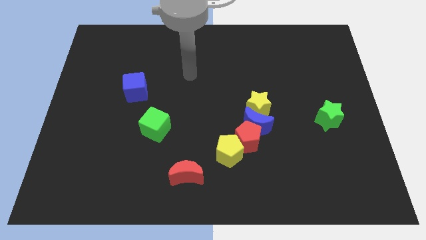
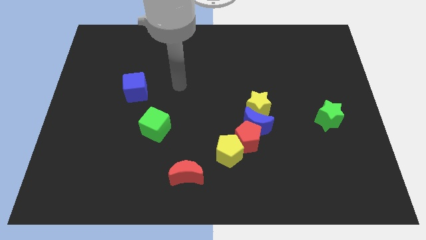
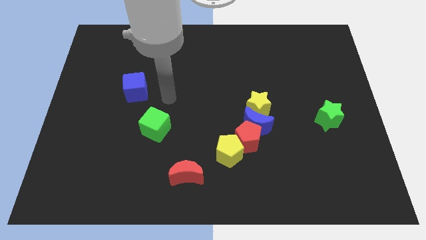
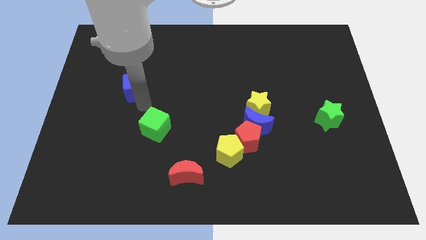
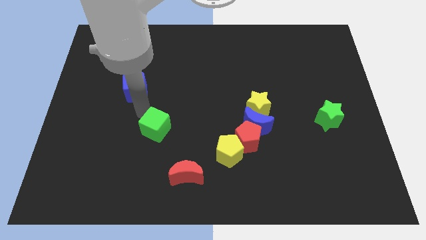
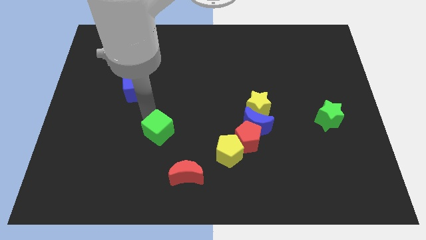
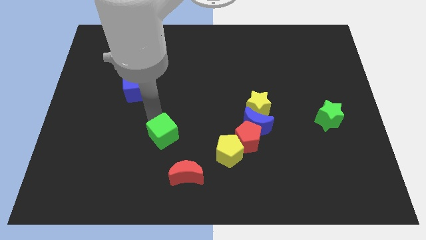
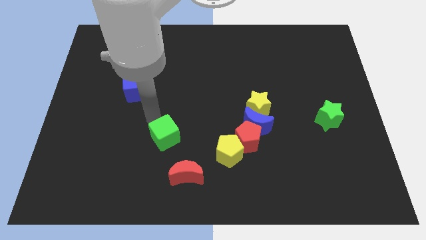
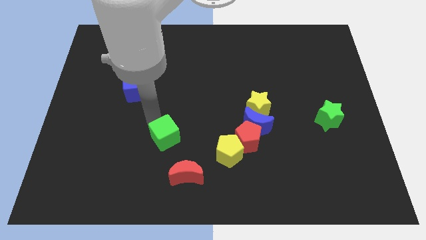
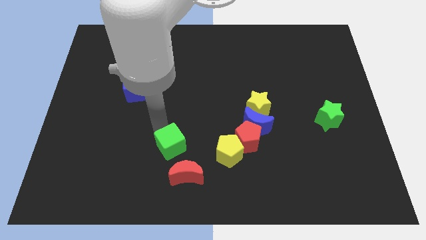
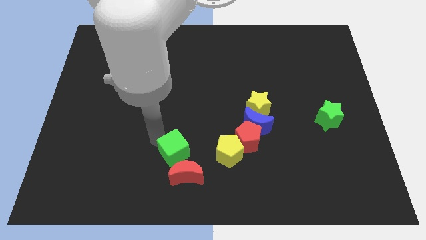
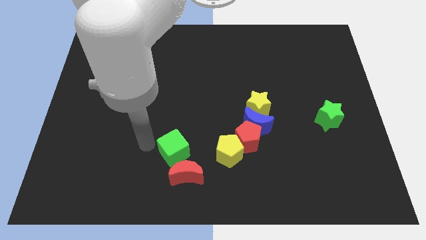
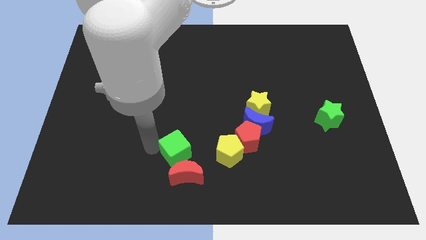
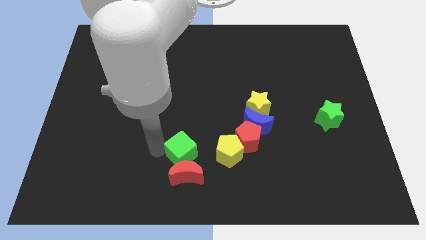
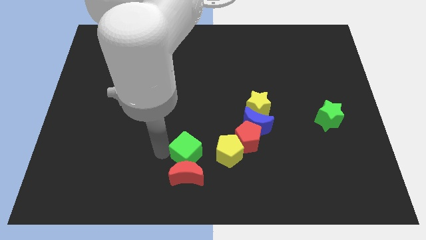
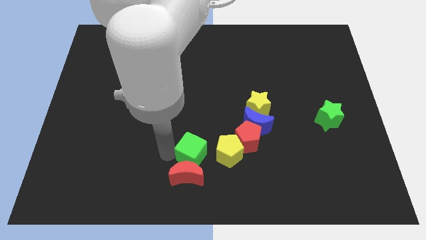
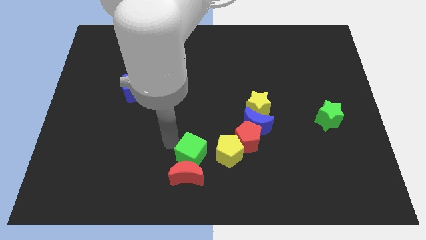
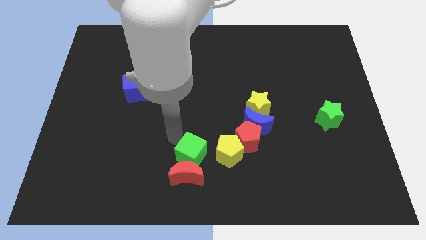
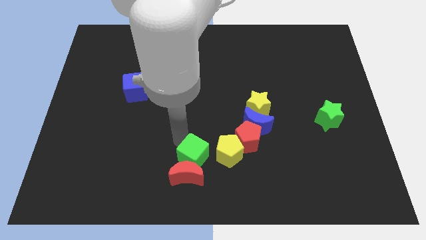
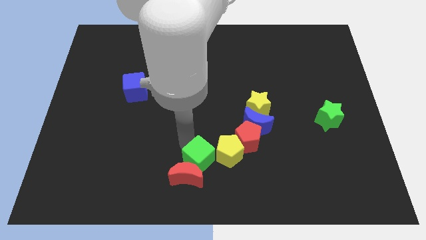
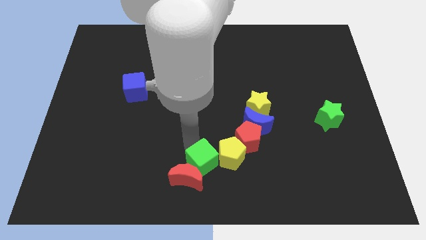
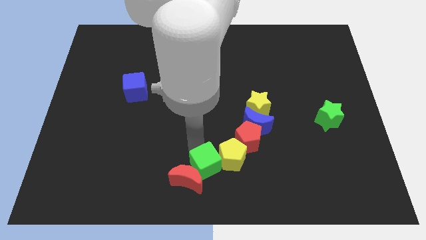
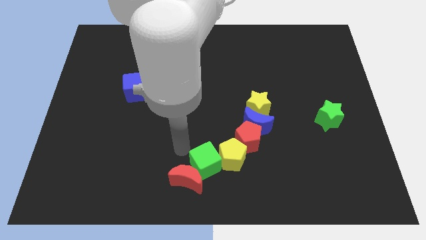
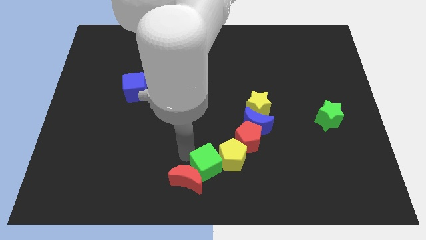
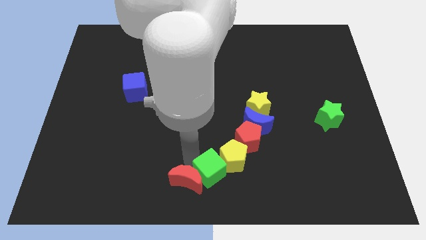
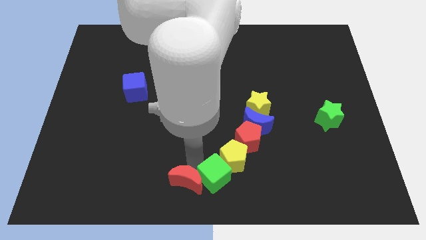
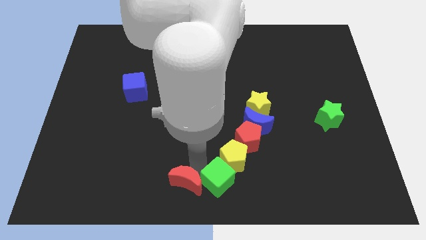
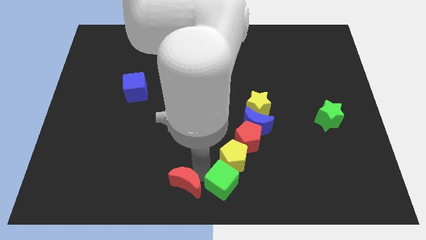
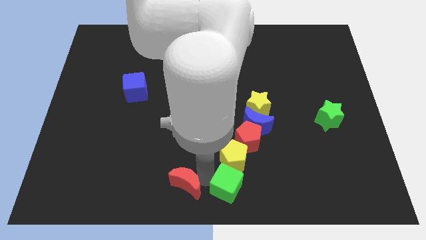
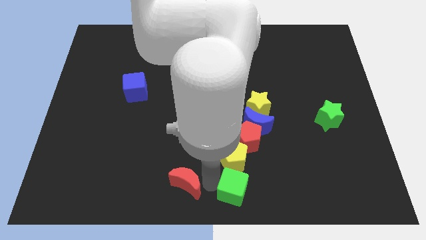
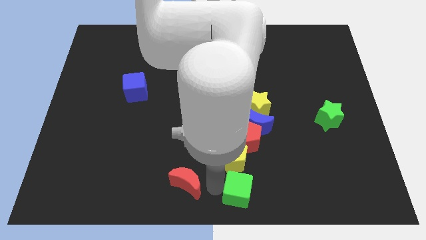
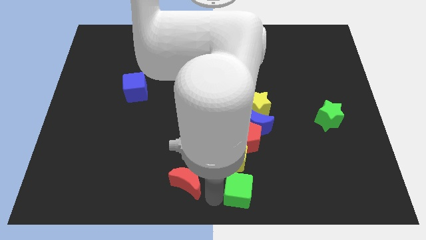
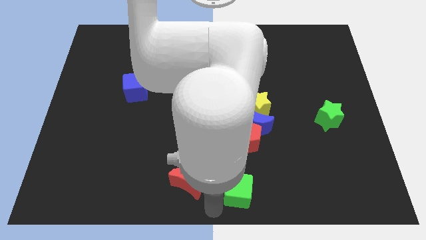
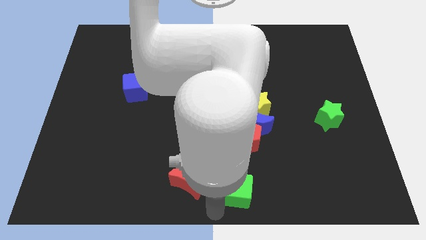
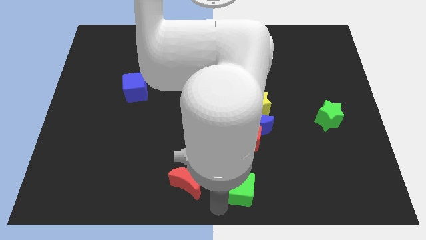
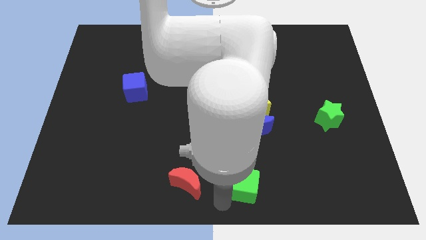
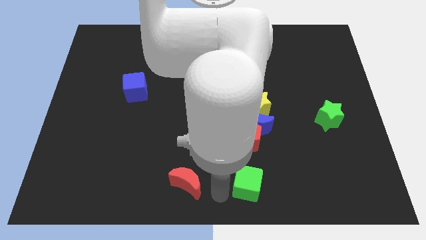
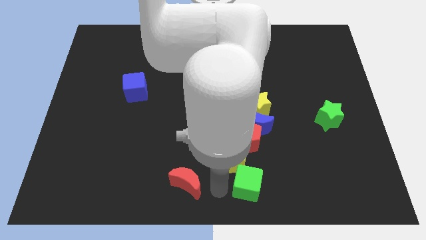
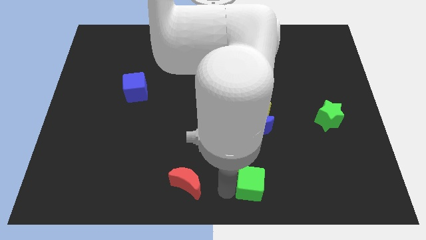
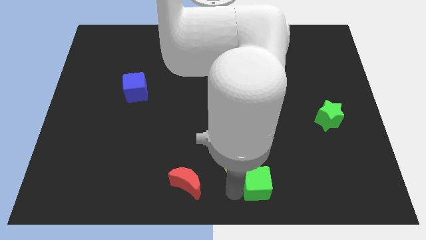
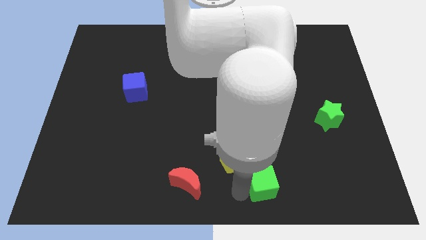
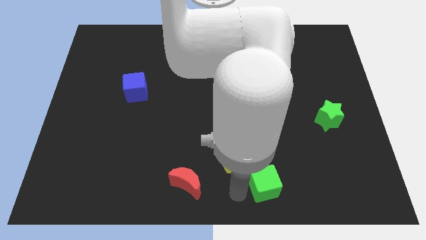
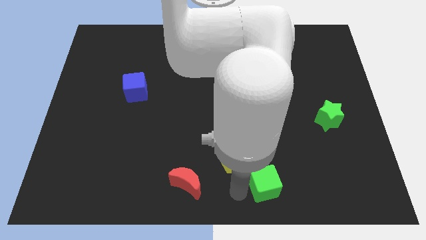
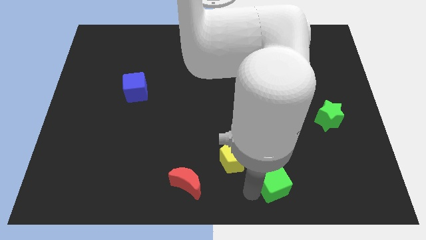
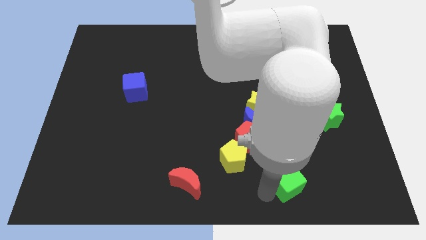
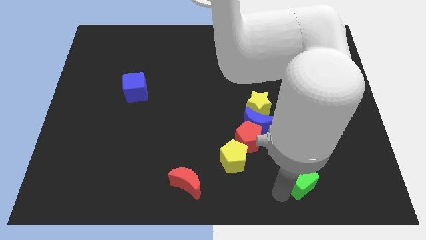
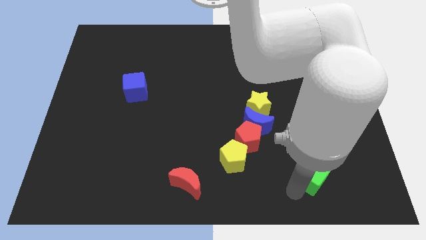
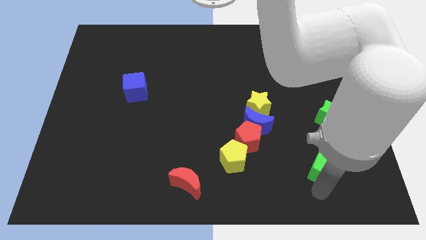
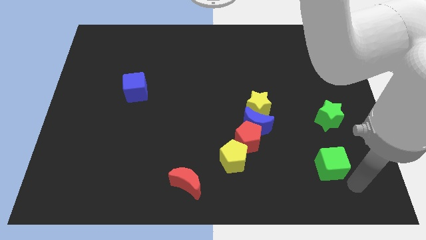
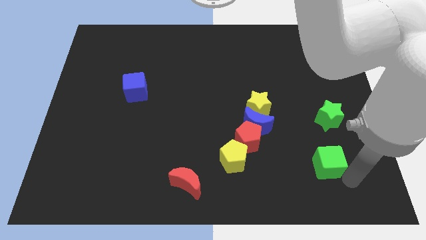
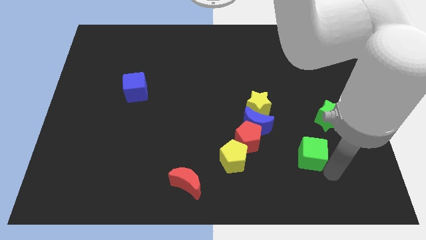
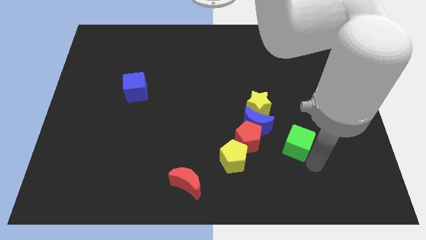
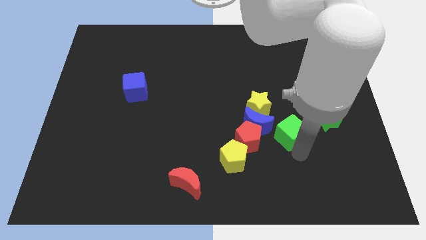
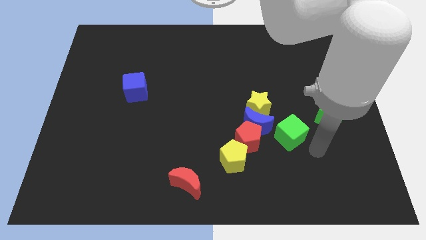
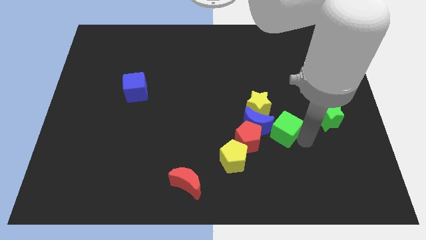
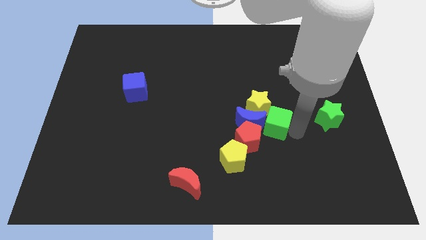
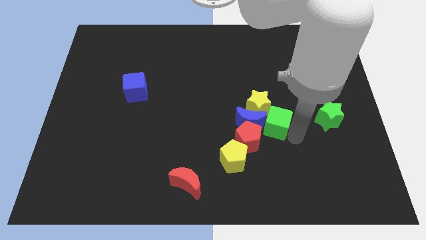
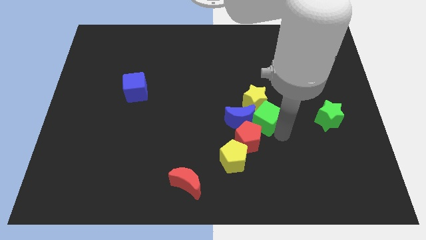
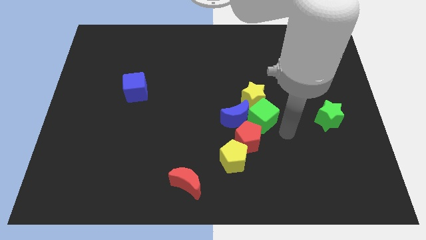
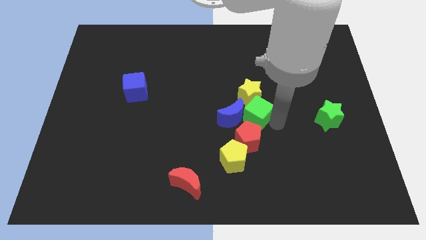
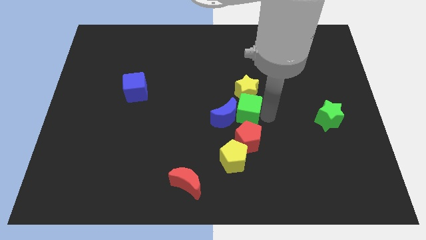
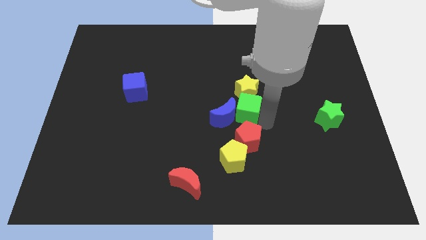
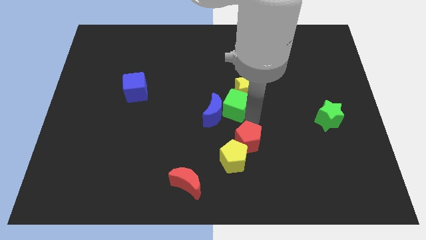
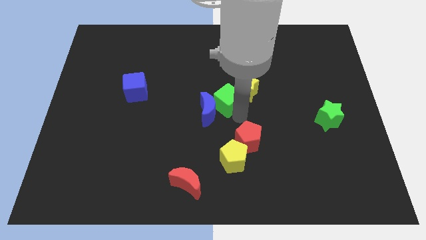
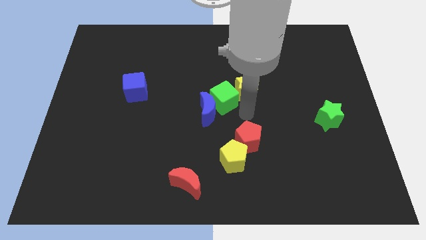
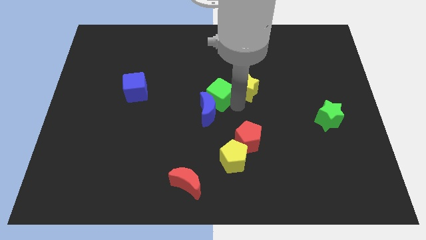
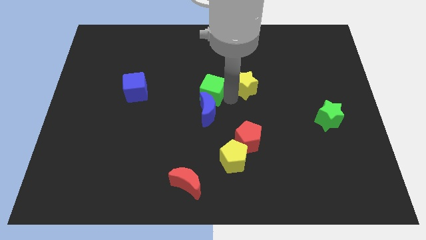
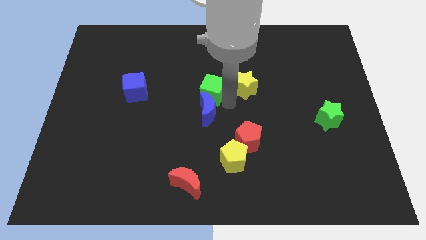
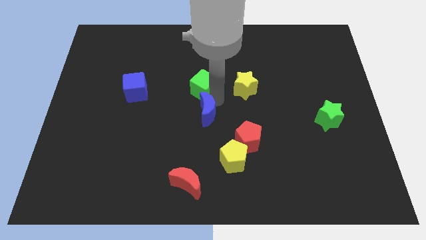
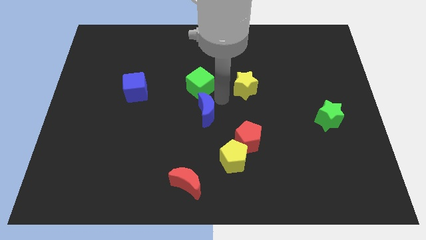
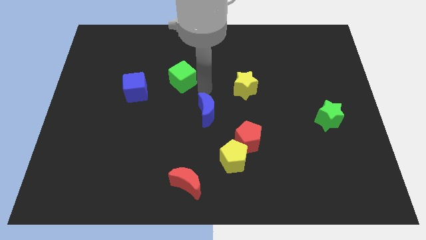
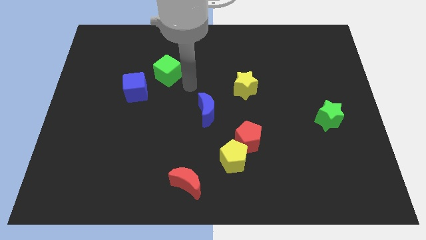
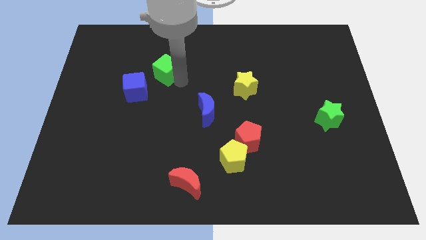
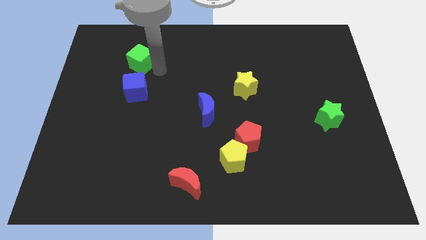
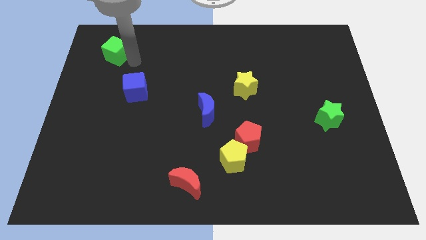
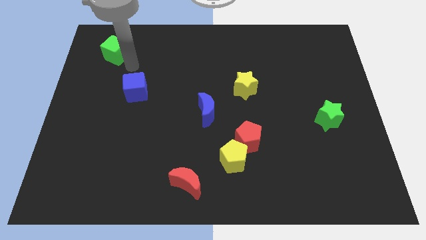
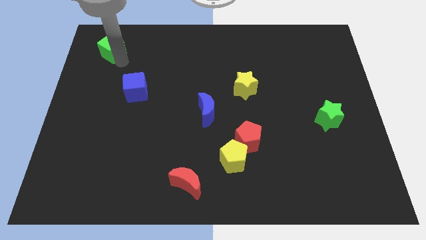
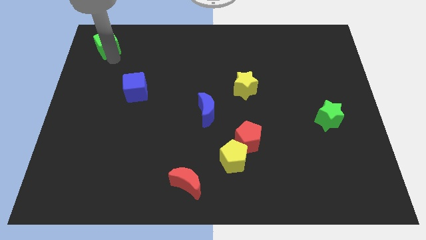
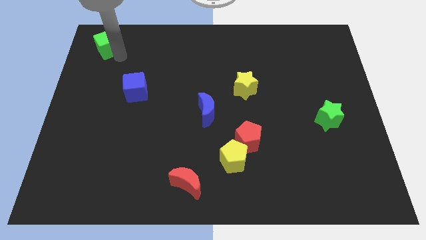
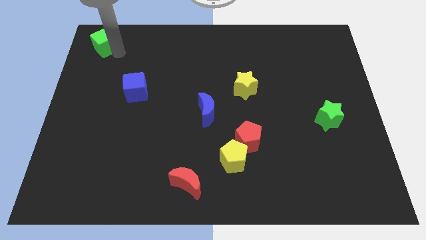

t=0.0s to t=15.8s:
put the green cube to the top left corner
